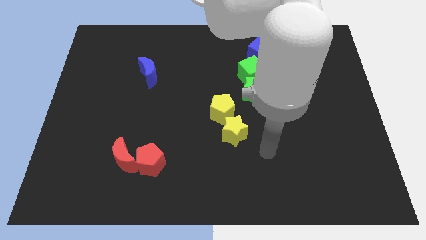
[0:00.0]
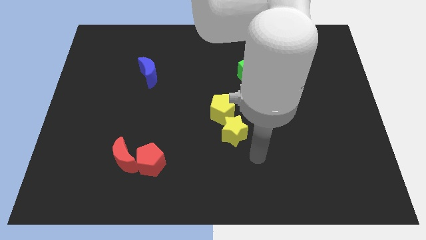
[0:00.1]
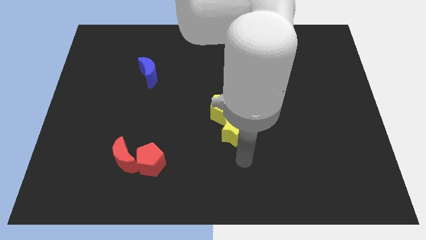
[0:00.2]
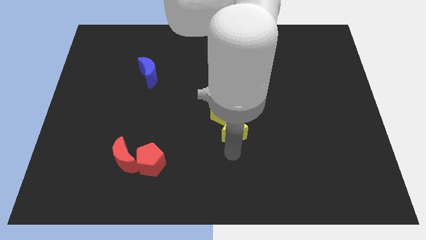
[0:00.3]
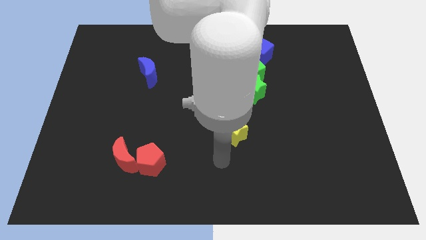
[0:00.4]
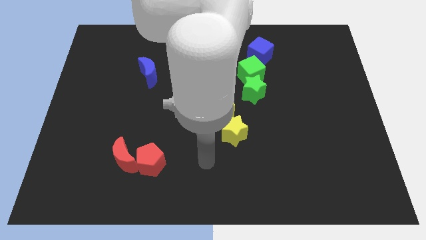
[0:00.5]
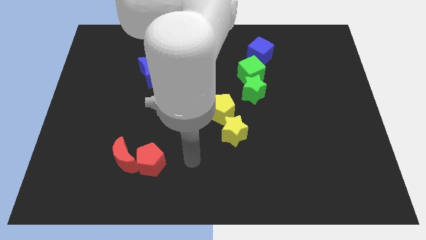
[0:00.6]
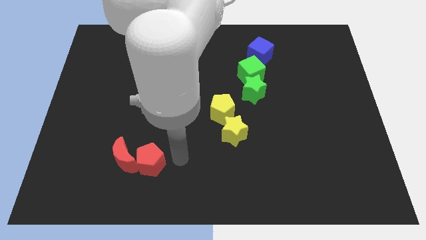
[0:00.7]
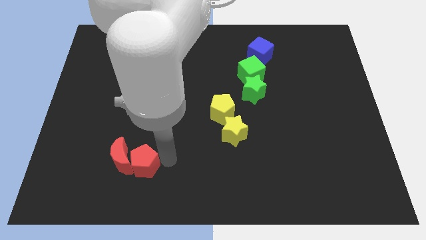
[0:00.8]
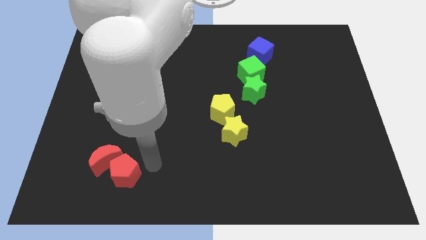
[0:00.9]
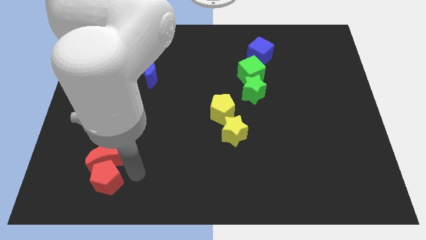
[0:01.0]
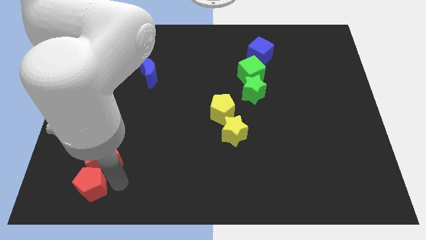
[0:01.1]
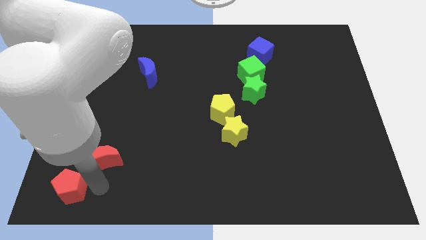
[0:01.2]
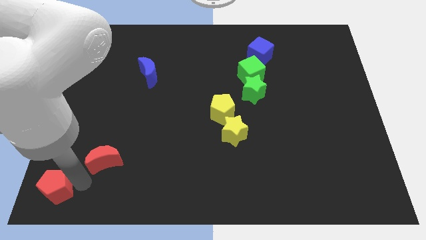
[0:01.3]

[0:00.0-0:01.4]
pull the red moon apart from the red pentagon

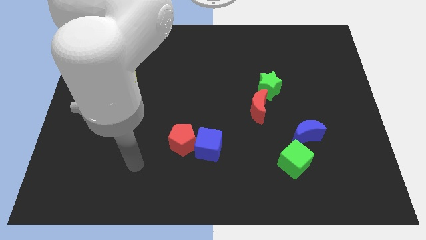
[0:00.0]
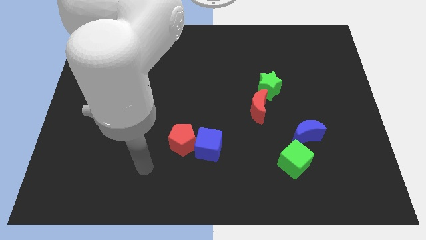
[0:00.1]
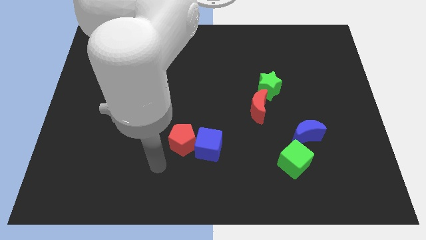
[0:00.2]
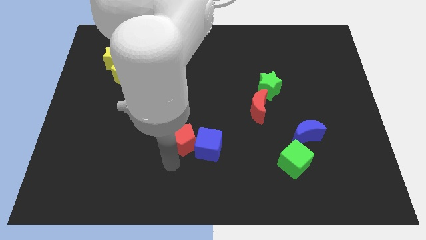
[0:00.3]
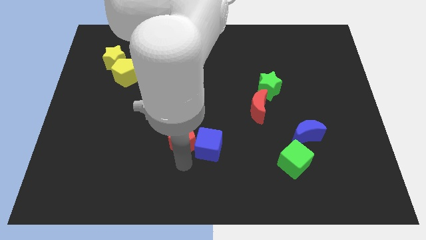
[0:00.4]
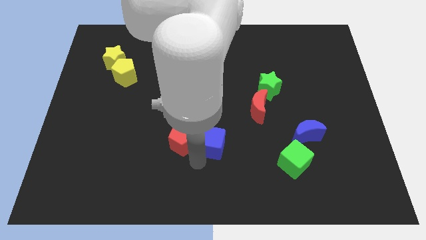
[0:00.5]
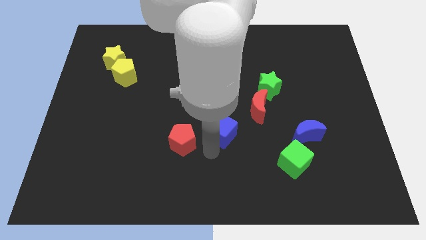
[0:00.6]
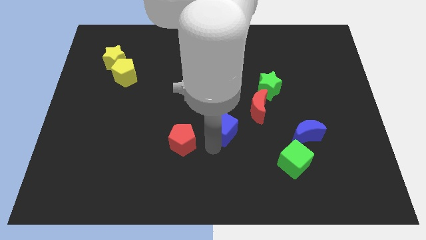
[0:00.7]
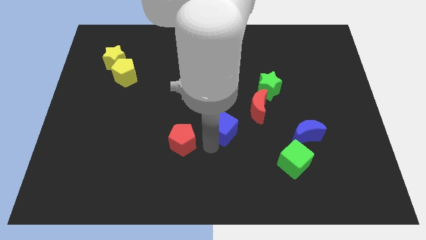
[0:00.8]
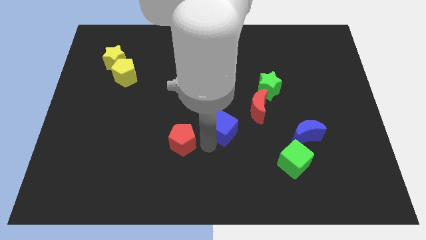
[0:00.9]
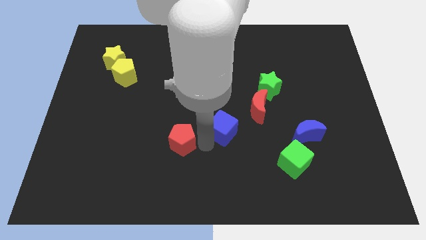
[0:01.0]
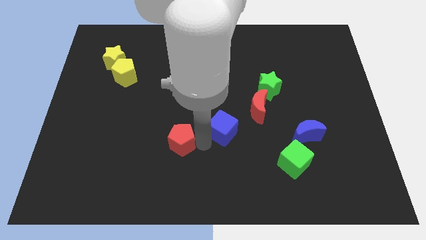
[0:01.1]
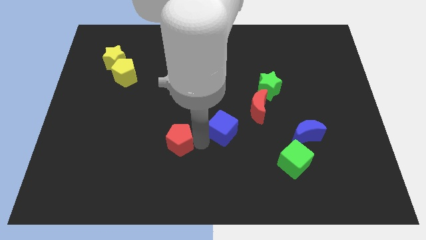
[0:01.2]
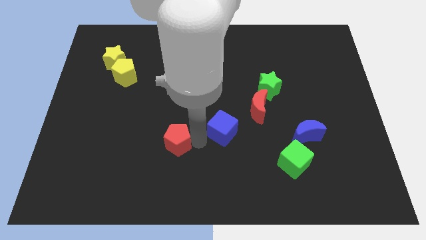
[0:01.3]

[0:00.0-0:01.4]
separate the red pentagon from the blue cube

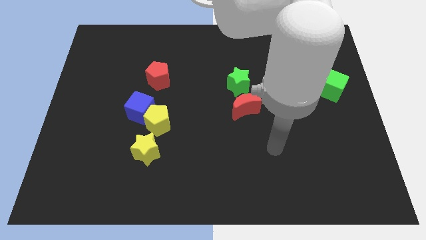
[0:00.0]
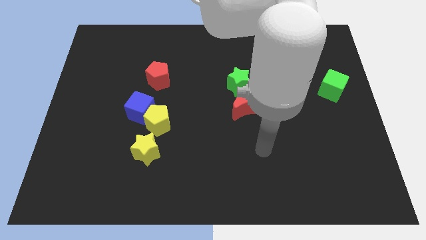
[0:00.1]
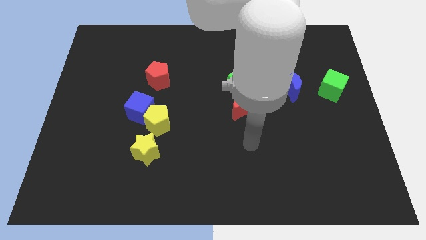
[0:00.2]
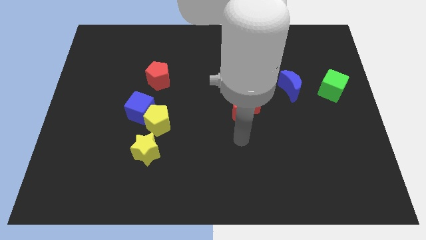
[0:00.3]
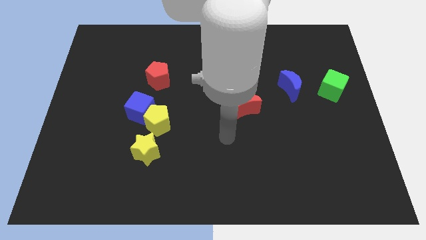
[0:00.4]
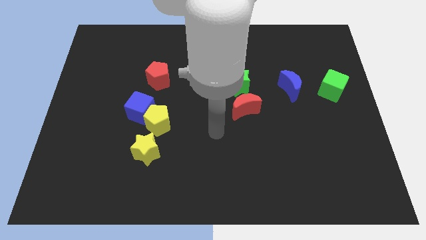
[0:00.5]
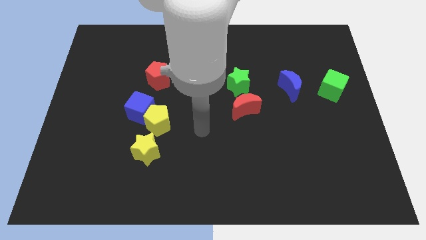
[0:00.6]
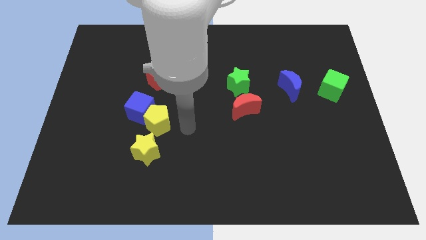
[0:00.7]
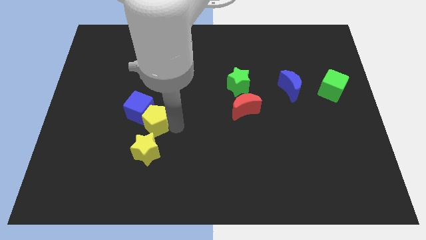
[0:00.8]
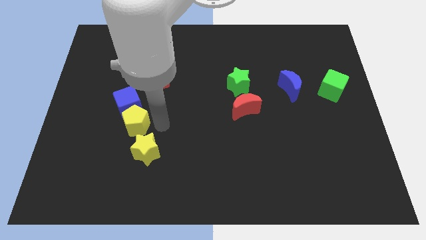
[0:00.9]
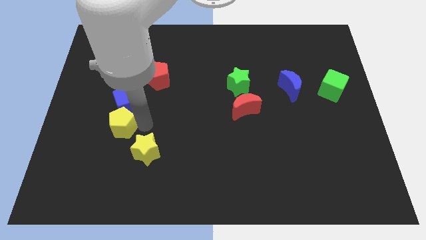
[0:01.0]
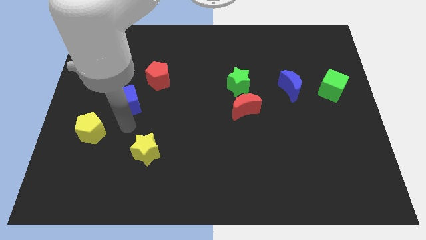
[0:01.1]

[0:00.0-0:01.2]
separate the blue cube from the yellow pentagon

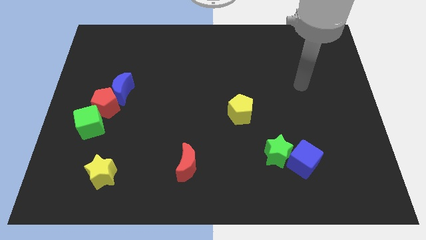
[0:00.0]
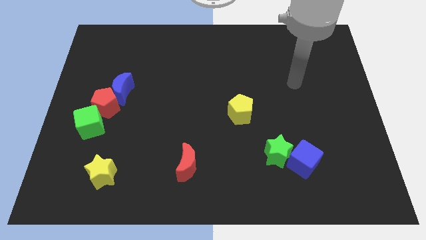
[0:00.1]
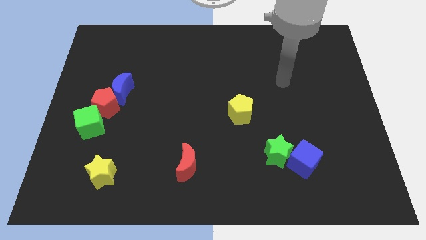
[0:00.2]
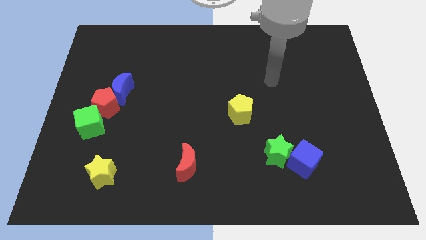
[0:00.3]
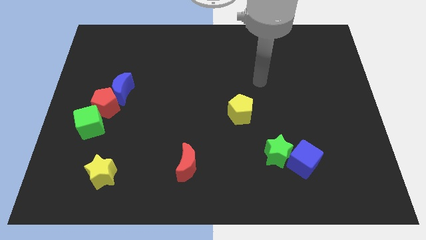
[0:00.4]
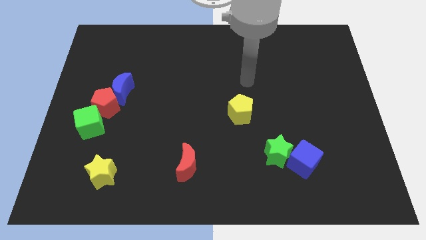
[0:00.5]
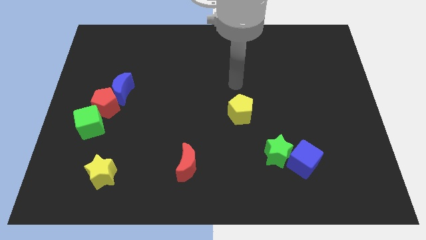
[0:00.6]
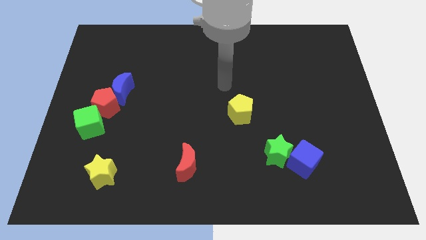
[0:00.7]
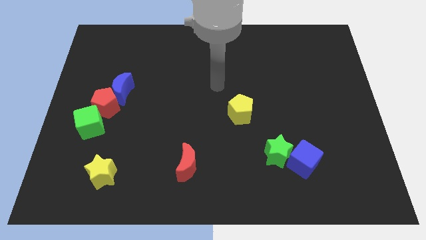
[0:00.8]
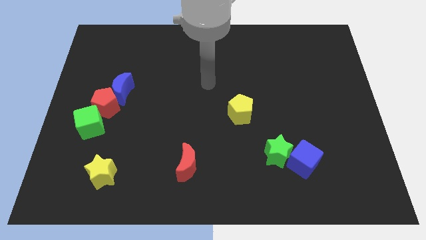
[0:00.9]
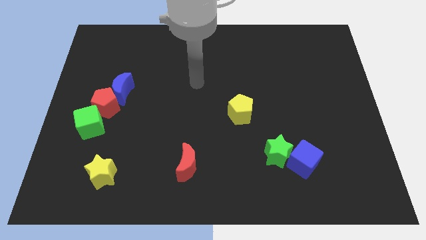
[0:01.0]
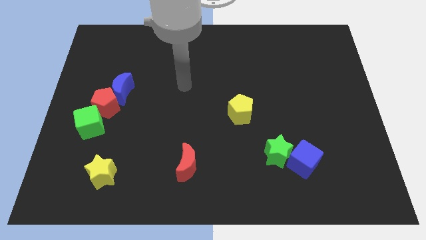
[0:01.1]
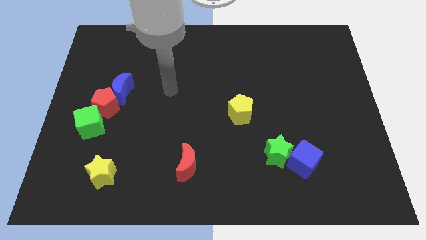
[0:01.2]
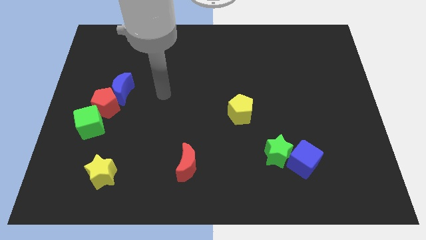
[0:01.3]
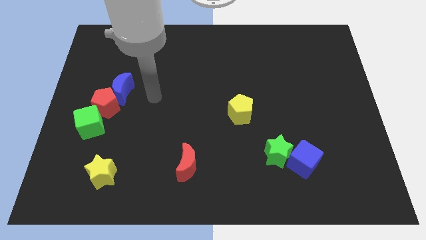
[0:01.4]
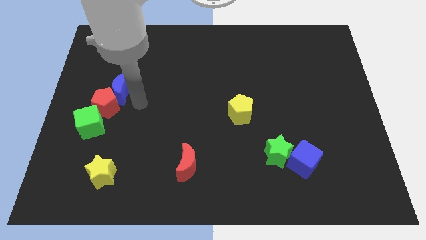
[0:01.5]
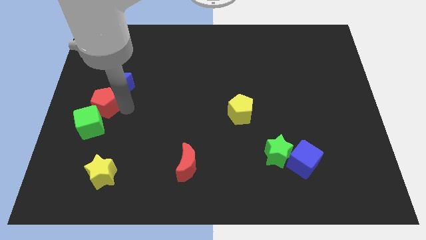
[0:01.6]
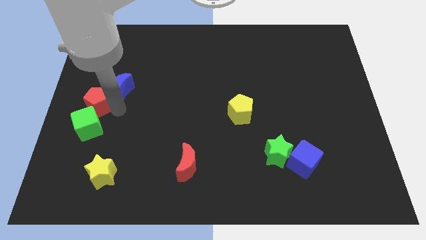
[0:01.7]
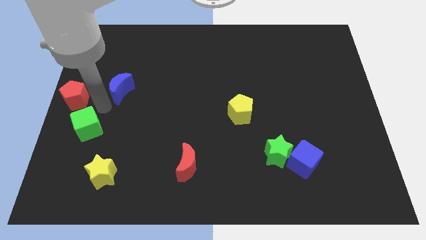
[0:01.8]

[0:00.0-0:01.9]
separate the blue moon from the red pentagon

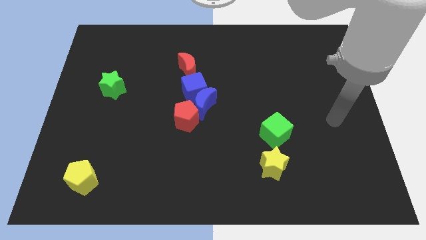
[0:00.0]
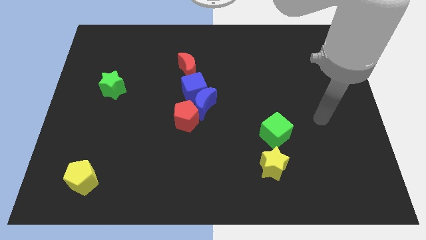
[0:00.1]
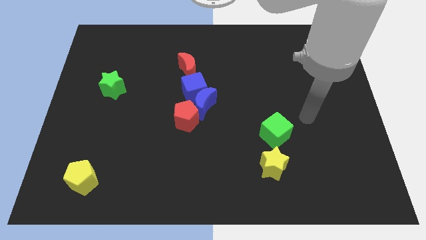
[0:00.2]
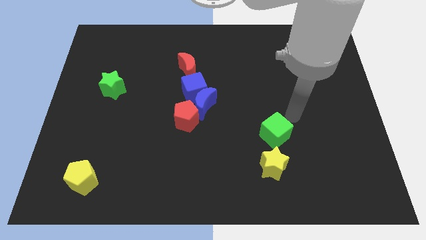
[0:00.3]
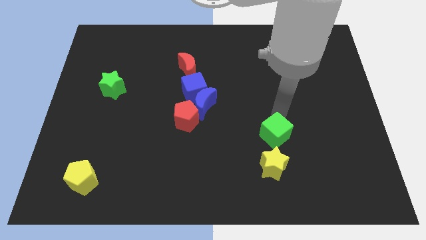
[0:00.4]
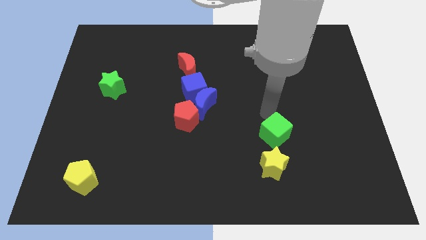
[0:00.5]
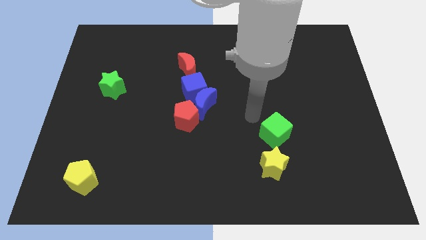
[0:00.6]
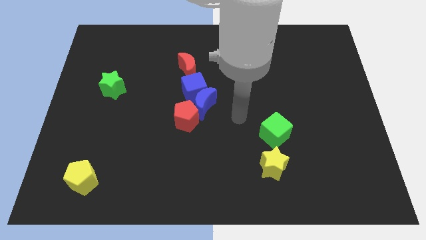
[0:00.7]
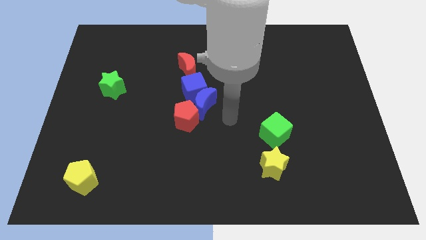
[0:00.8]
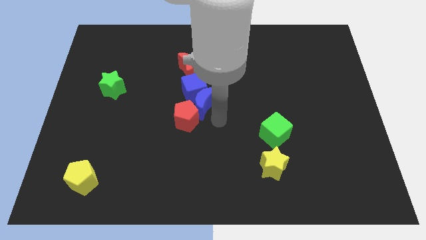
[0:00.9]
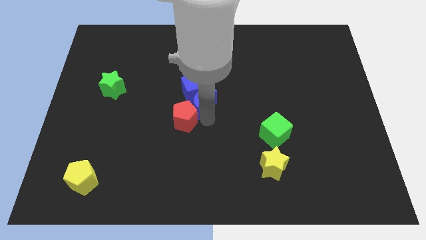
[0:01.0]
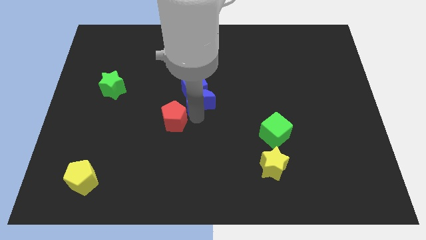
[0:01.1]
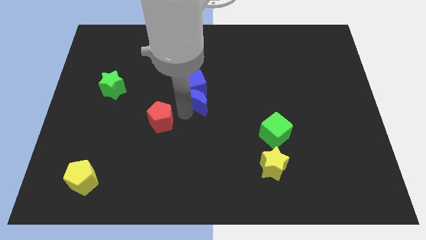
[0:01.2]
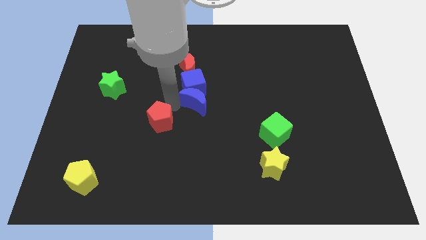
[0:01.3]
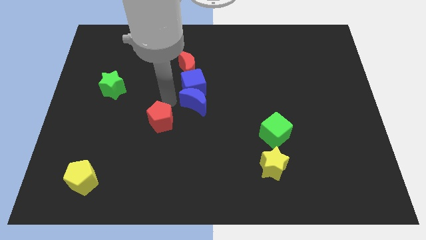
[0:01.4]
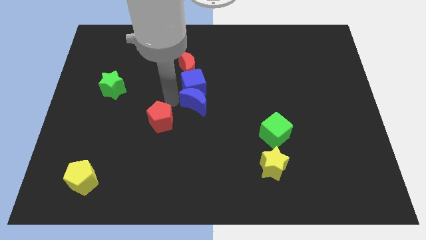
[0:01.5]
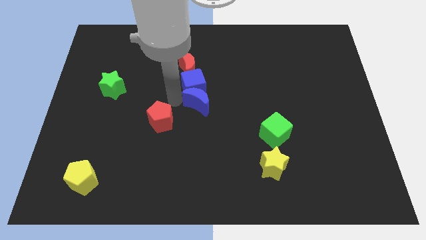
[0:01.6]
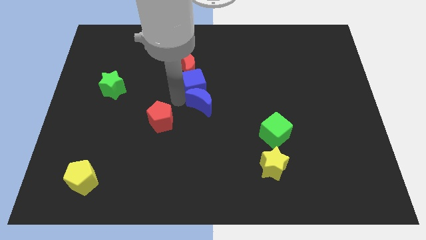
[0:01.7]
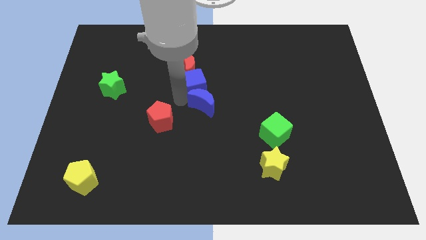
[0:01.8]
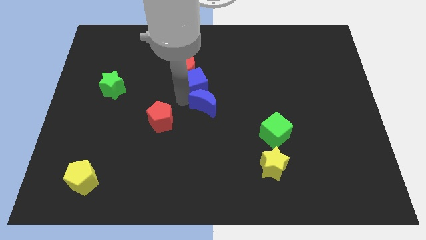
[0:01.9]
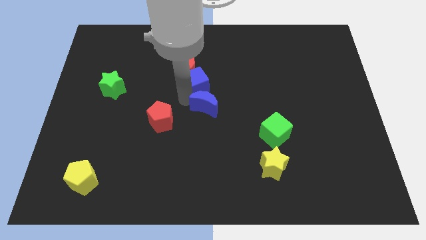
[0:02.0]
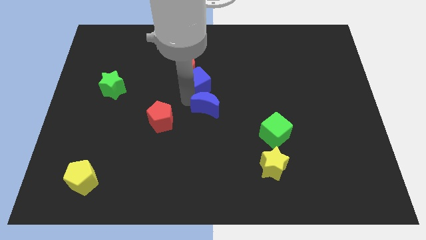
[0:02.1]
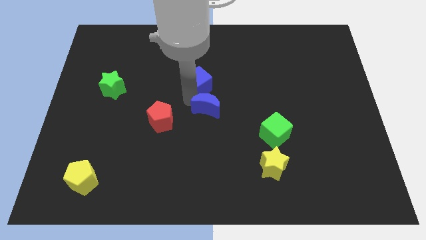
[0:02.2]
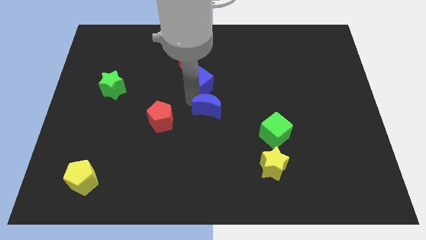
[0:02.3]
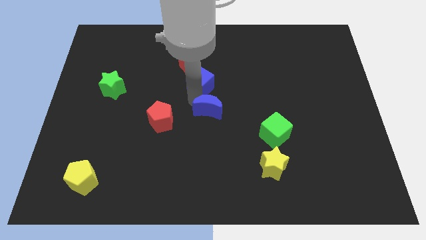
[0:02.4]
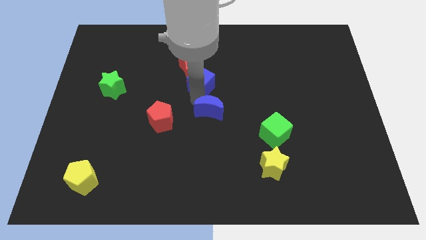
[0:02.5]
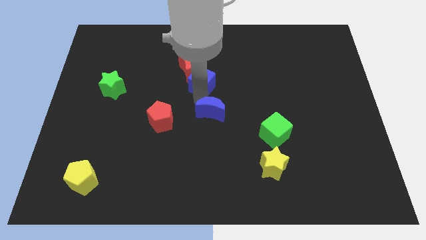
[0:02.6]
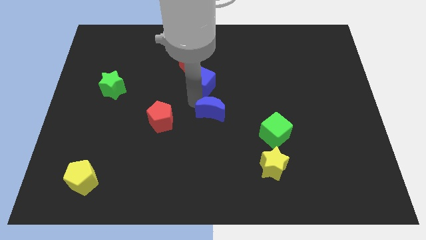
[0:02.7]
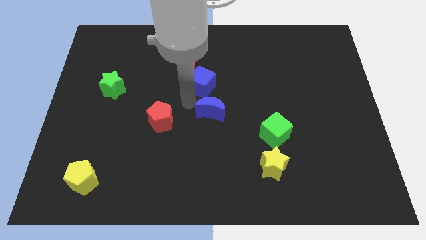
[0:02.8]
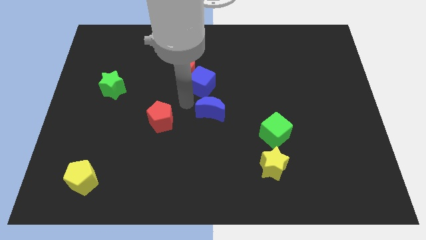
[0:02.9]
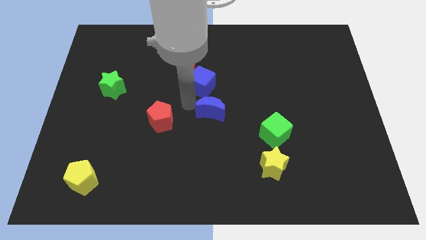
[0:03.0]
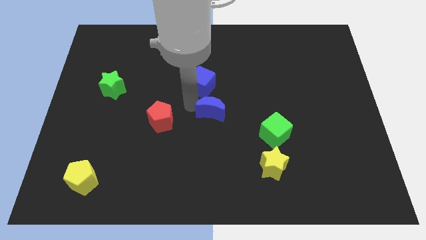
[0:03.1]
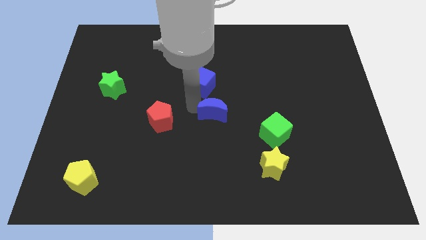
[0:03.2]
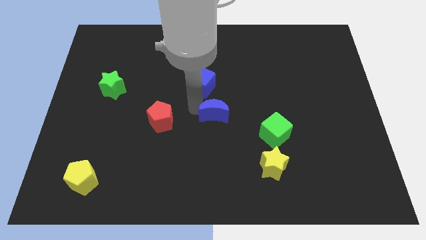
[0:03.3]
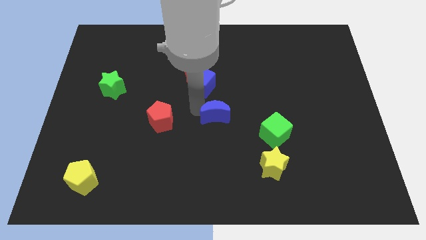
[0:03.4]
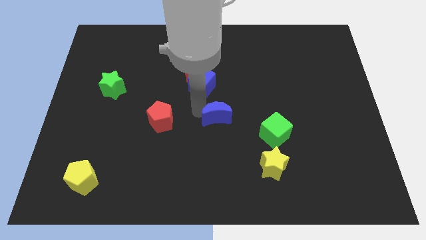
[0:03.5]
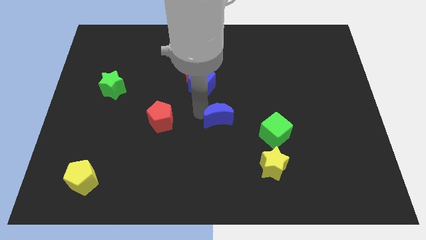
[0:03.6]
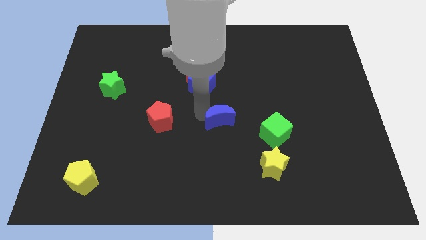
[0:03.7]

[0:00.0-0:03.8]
pull the blue moon apart from the blue cube and red pentagon
